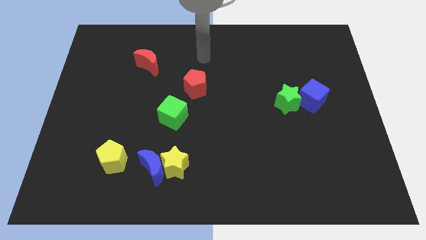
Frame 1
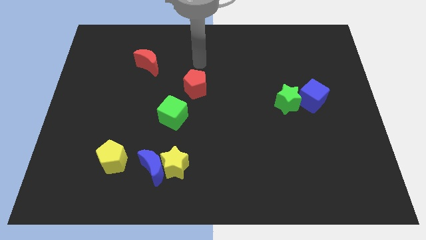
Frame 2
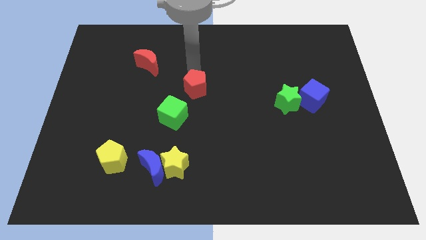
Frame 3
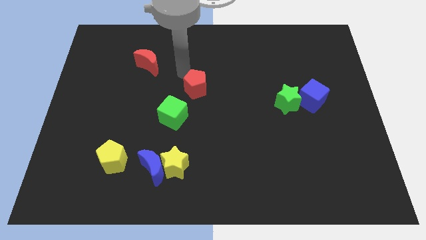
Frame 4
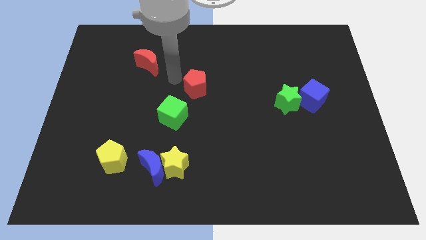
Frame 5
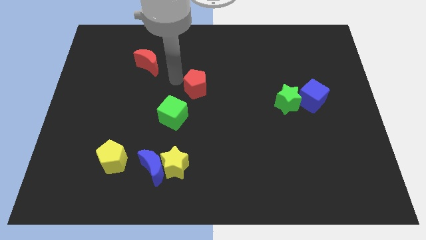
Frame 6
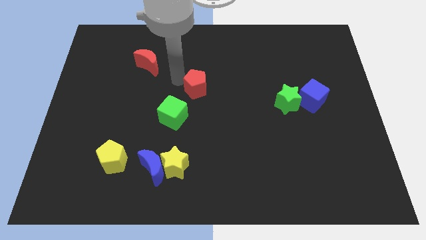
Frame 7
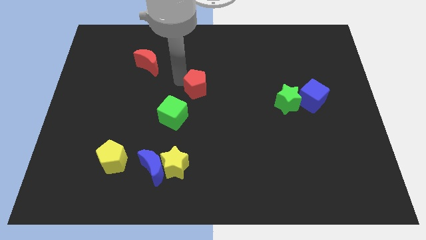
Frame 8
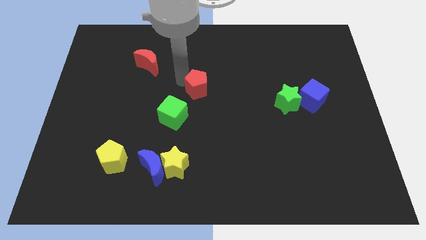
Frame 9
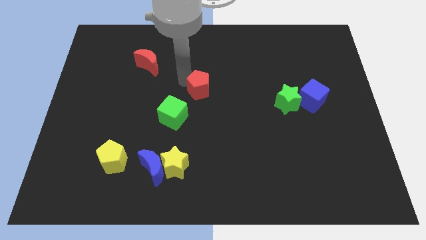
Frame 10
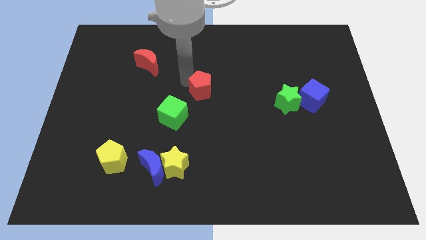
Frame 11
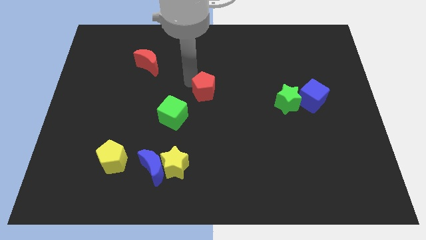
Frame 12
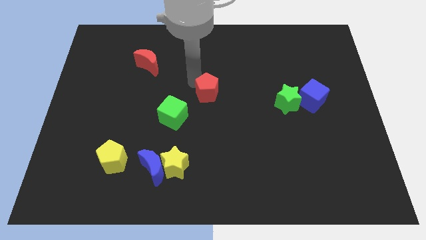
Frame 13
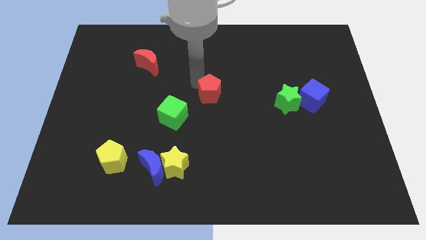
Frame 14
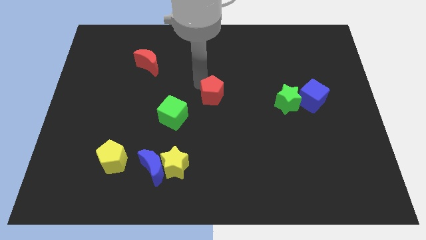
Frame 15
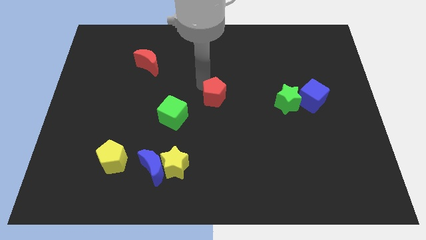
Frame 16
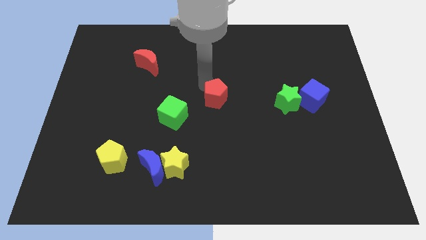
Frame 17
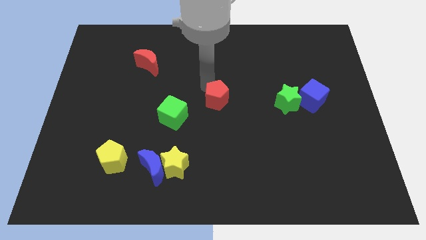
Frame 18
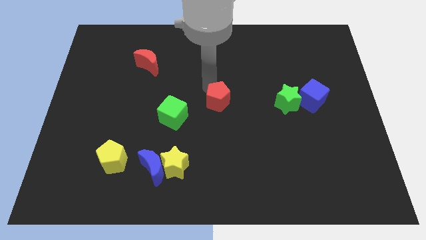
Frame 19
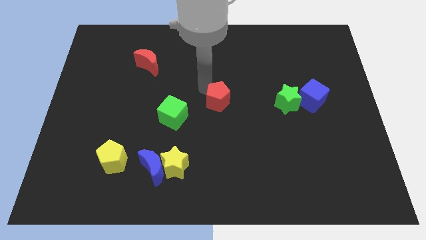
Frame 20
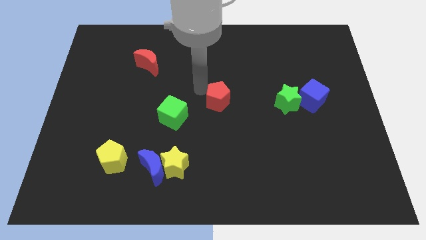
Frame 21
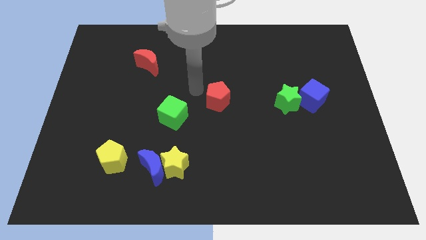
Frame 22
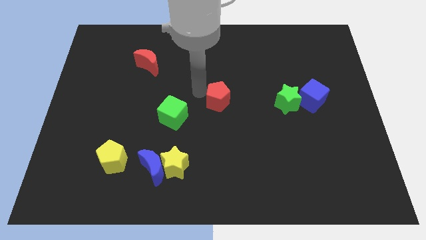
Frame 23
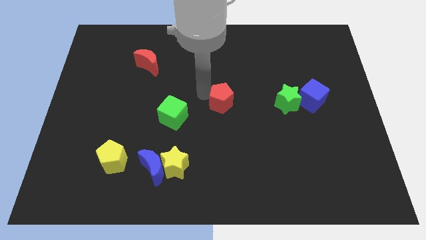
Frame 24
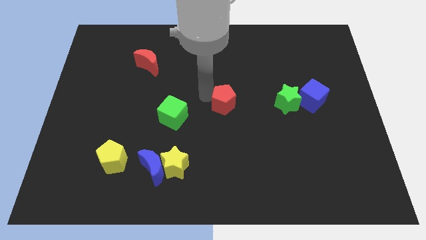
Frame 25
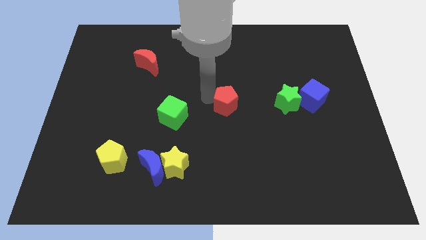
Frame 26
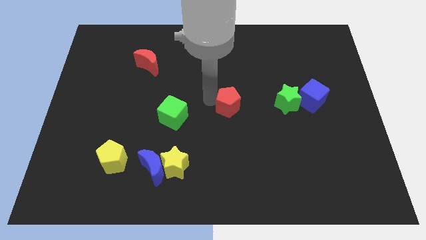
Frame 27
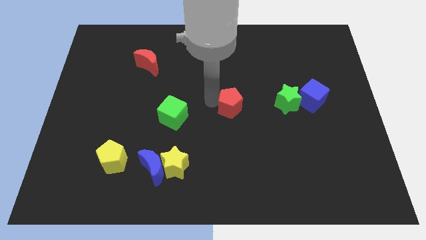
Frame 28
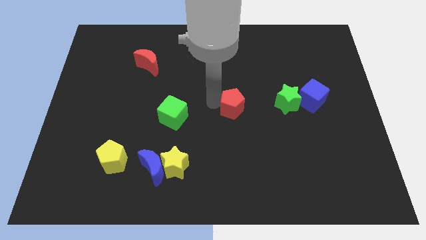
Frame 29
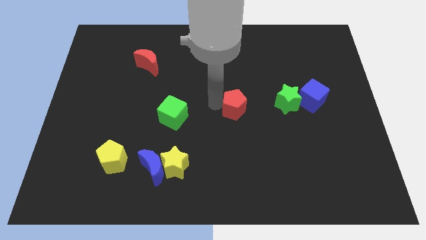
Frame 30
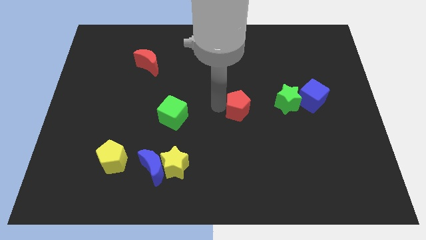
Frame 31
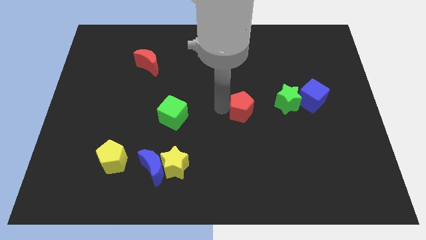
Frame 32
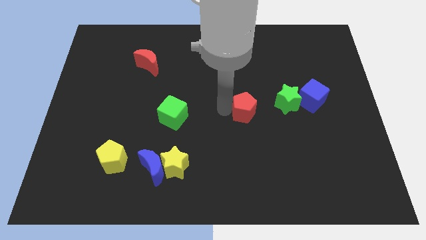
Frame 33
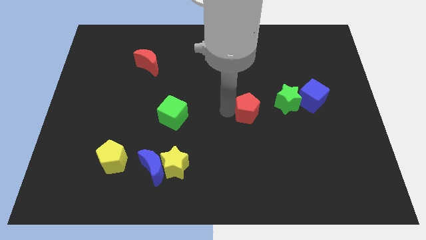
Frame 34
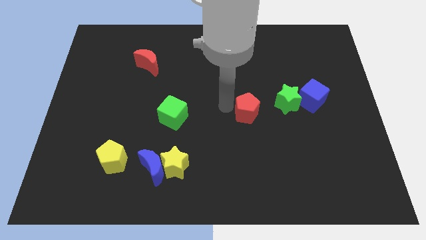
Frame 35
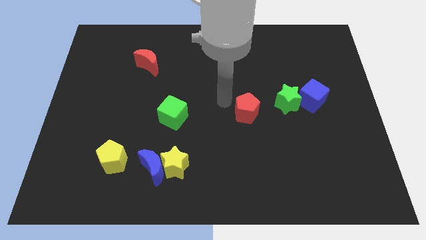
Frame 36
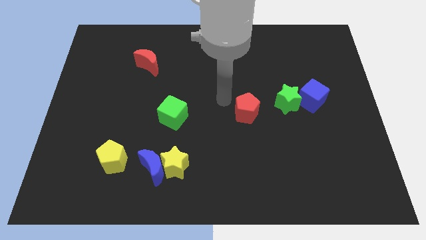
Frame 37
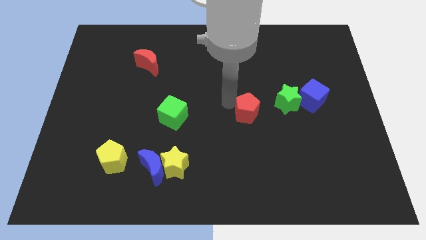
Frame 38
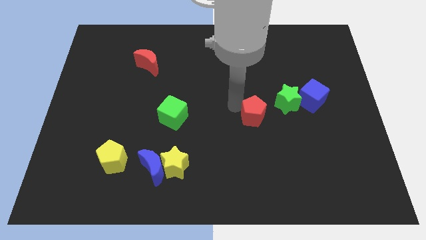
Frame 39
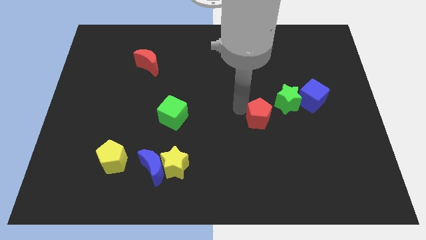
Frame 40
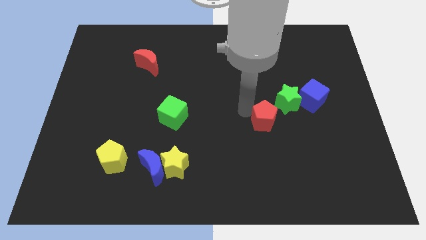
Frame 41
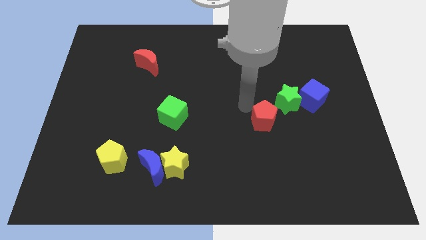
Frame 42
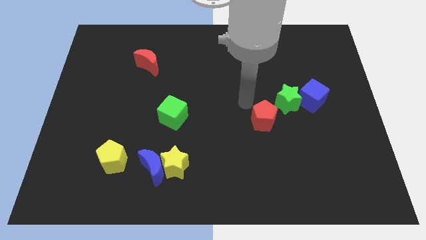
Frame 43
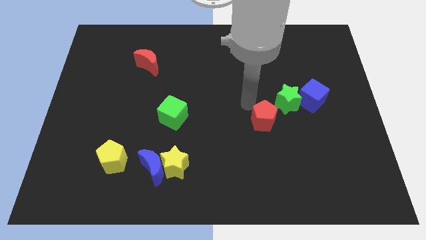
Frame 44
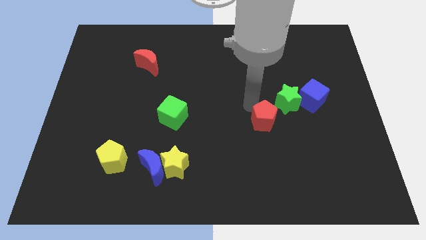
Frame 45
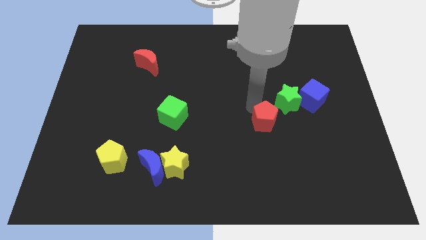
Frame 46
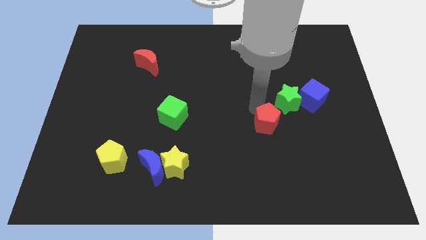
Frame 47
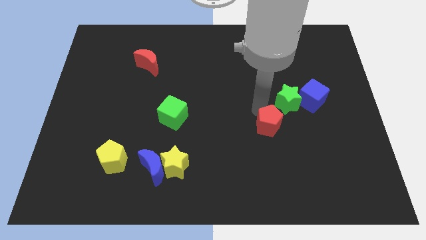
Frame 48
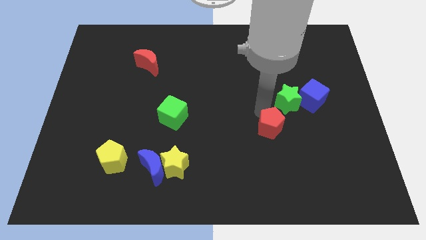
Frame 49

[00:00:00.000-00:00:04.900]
slide the red pentagon downwards and to the right diagonally

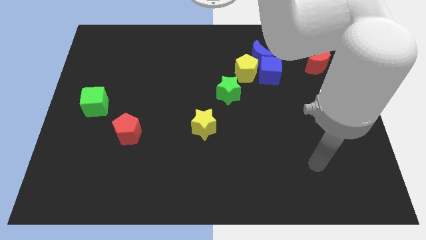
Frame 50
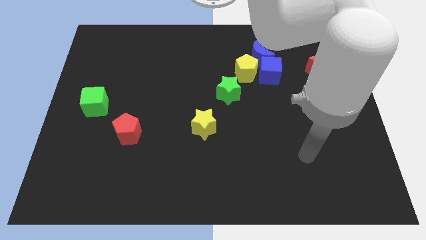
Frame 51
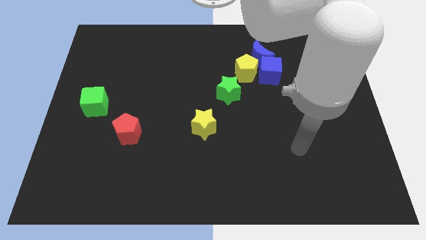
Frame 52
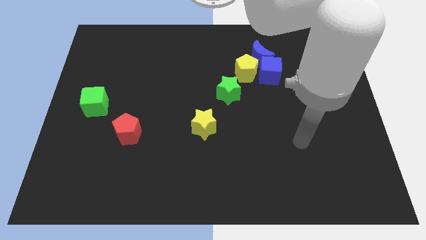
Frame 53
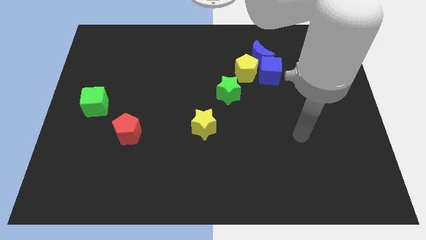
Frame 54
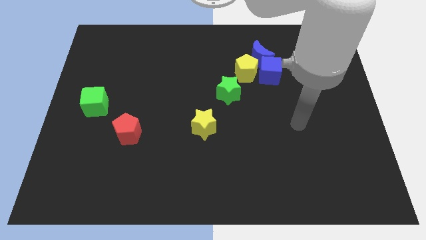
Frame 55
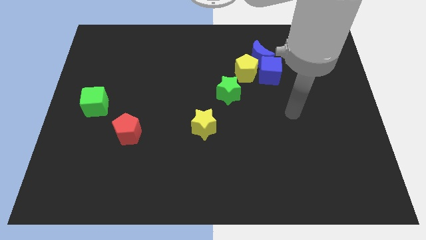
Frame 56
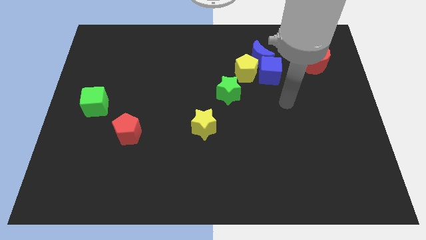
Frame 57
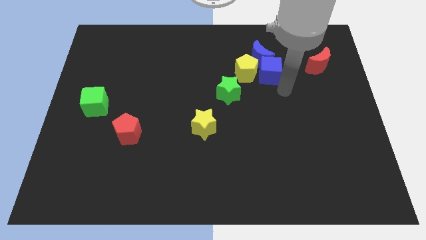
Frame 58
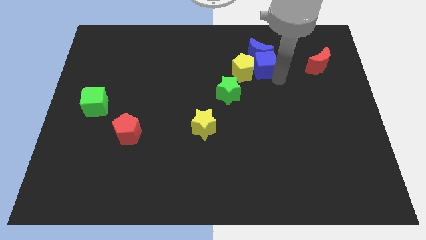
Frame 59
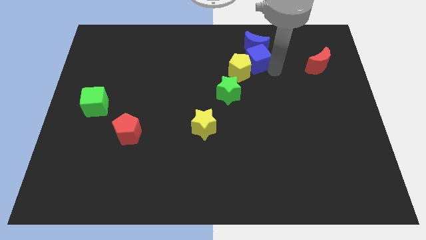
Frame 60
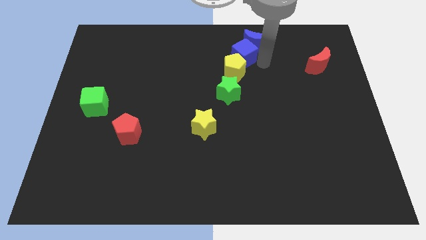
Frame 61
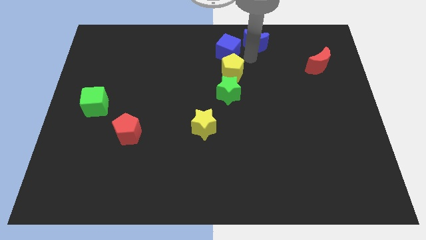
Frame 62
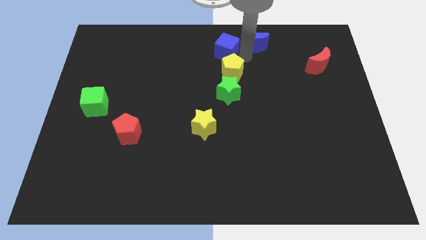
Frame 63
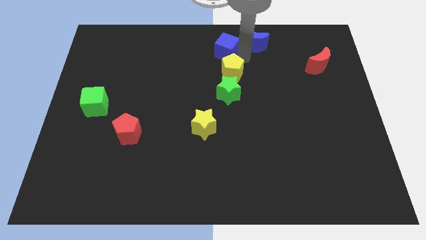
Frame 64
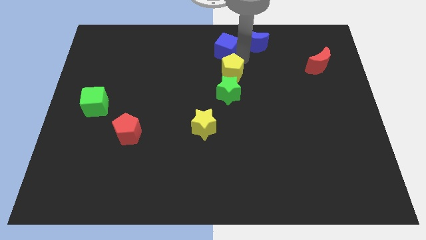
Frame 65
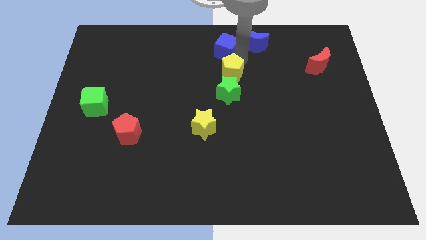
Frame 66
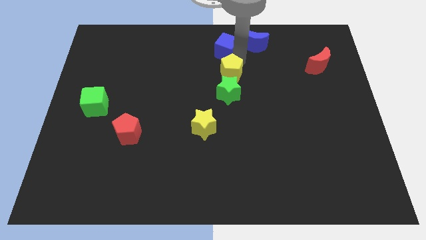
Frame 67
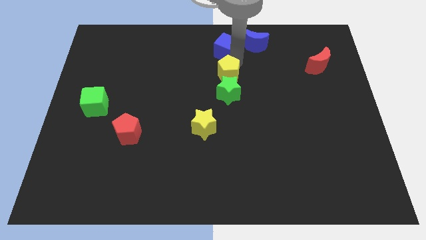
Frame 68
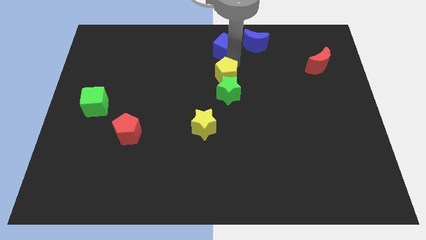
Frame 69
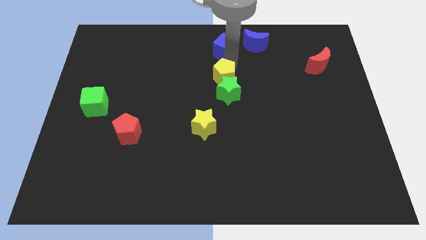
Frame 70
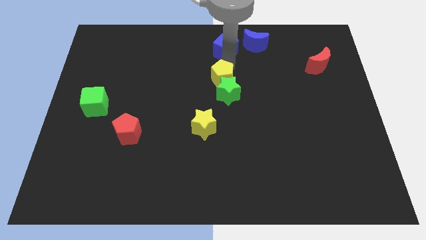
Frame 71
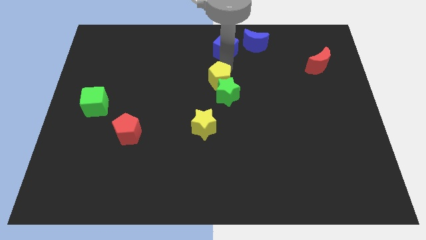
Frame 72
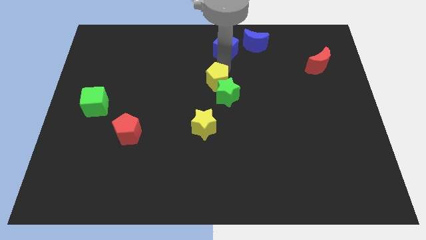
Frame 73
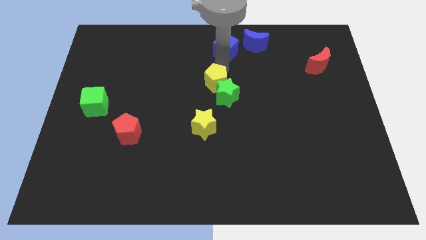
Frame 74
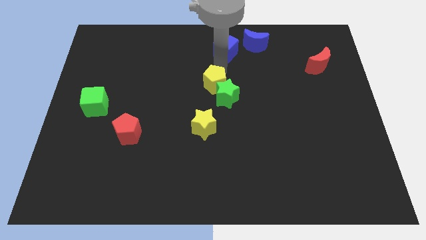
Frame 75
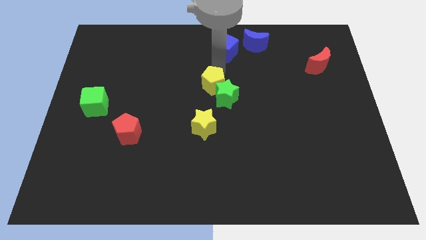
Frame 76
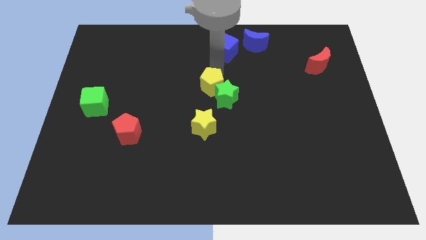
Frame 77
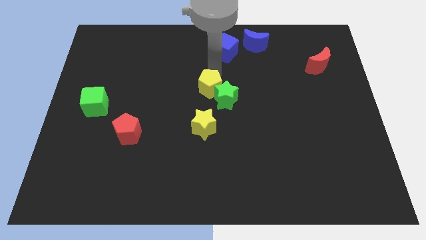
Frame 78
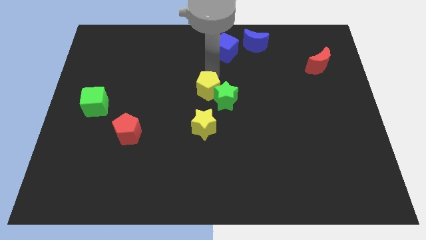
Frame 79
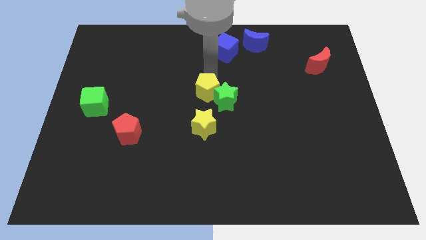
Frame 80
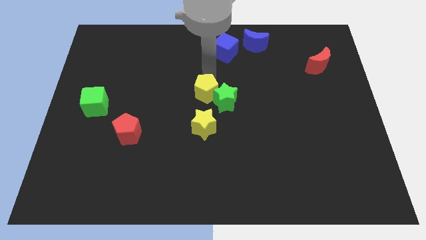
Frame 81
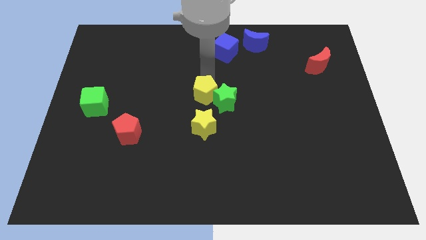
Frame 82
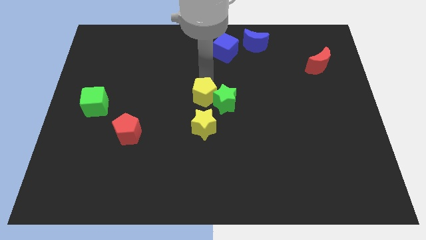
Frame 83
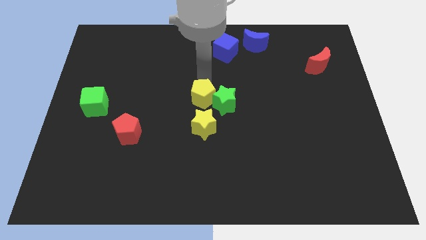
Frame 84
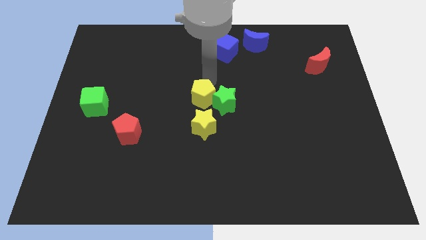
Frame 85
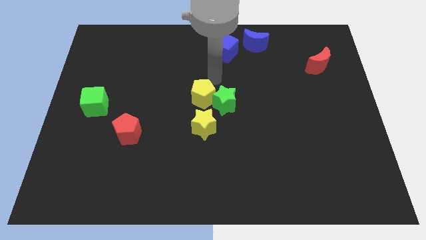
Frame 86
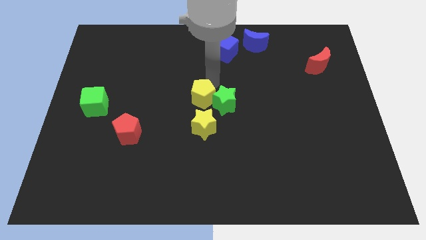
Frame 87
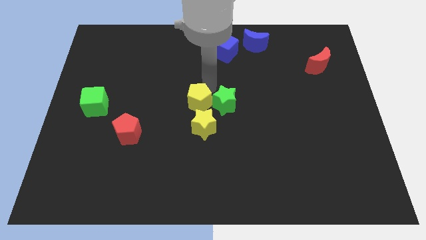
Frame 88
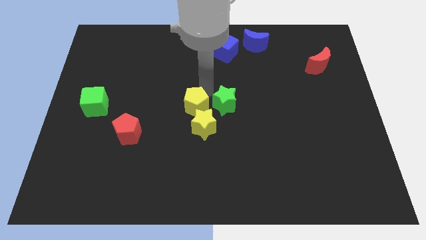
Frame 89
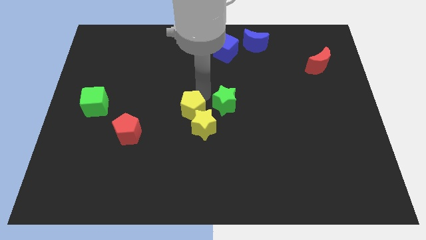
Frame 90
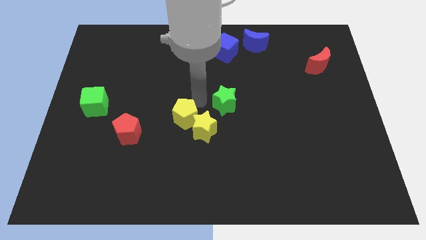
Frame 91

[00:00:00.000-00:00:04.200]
push the yellow pentagon downwards and then left
